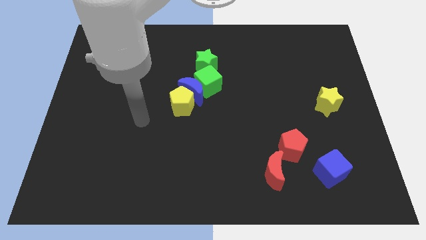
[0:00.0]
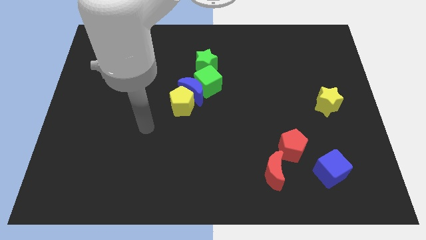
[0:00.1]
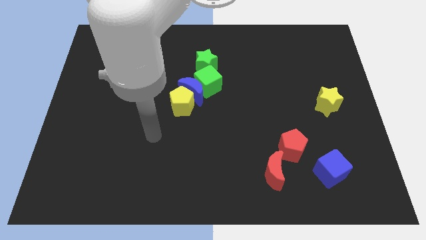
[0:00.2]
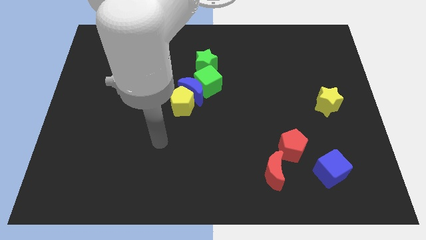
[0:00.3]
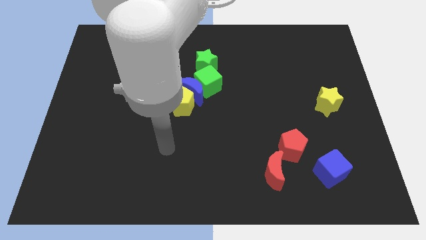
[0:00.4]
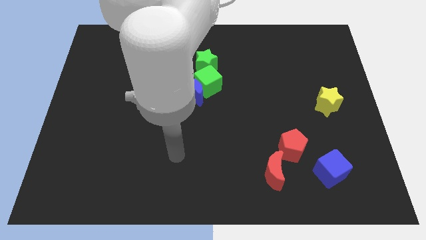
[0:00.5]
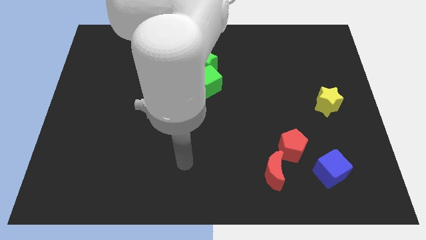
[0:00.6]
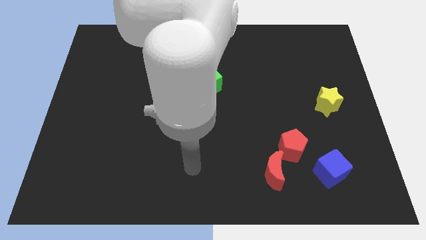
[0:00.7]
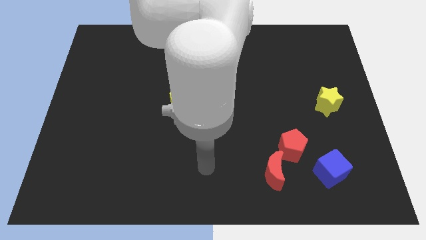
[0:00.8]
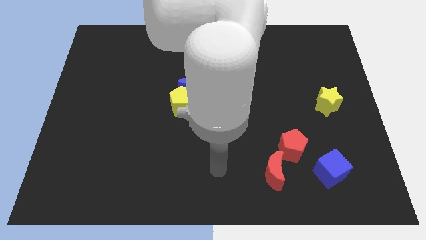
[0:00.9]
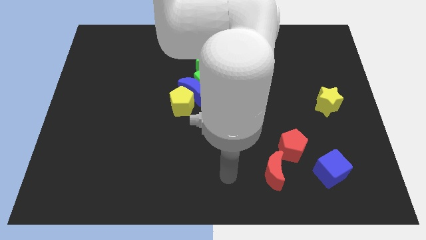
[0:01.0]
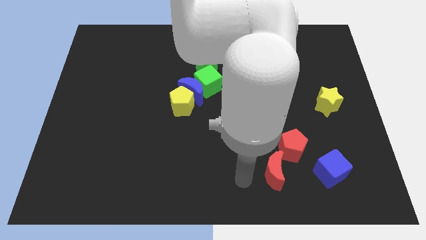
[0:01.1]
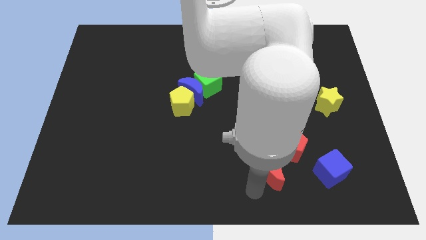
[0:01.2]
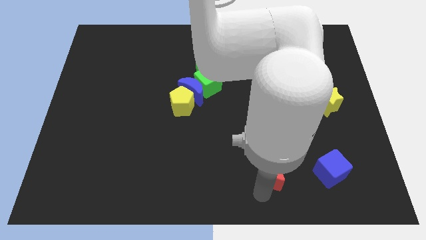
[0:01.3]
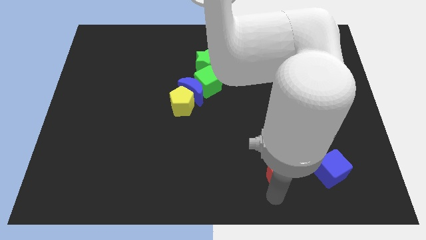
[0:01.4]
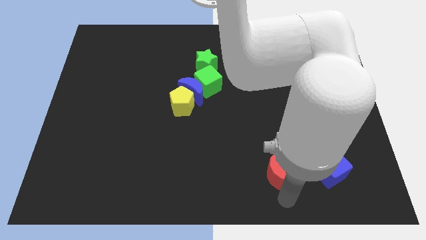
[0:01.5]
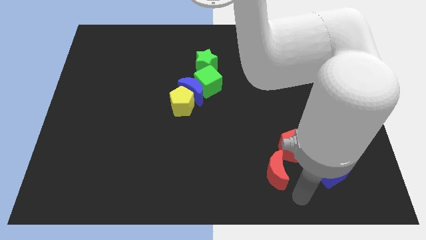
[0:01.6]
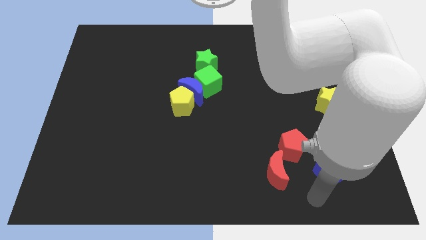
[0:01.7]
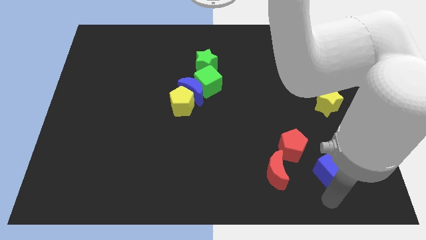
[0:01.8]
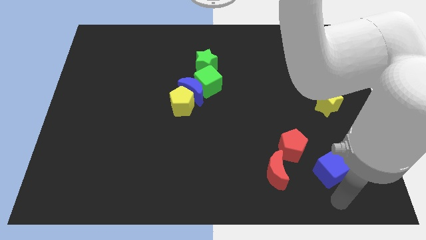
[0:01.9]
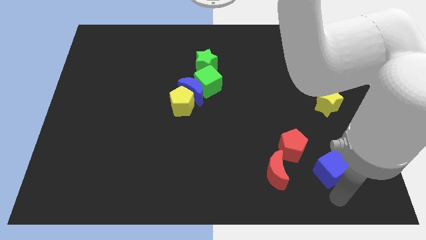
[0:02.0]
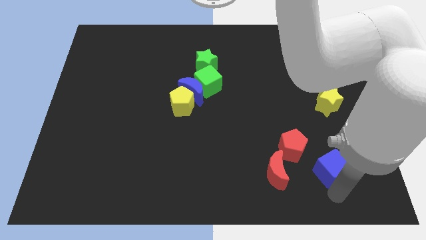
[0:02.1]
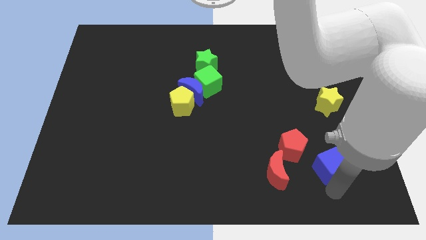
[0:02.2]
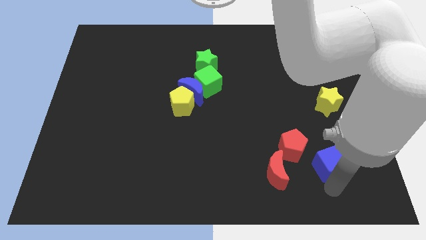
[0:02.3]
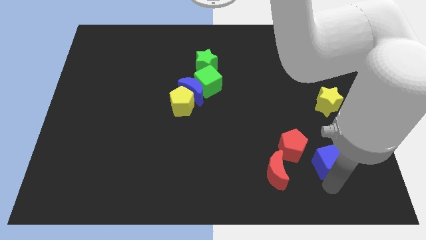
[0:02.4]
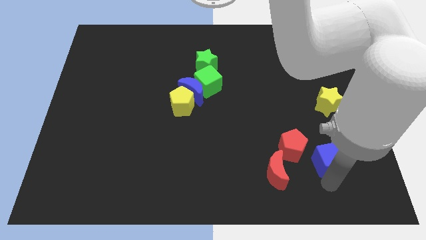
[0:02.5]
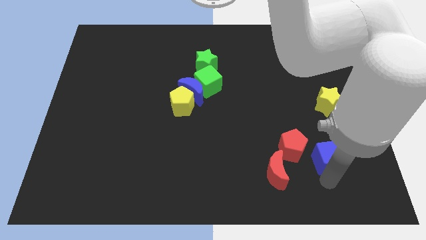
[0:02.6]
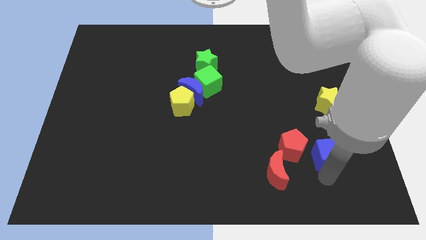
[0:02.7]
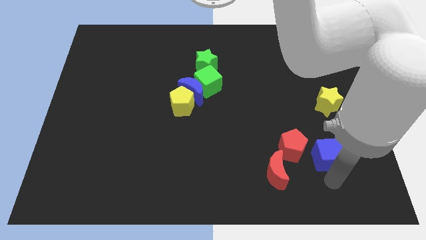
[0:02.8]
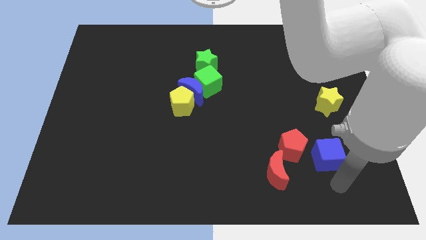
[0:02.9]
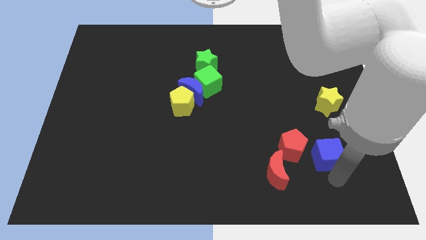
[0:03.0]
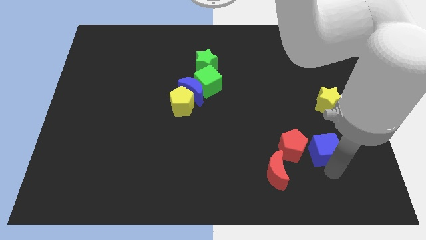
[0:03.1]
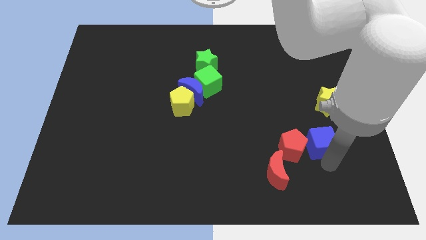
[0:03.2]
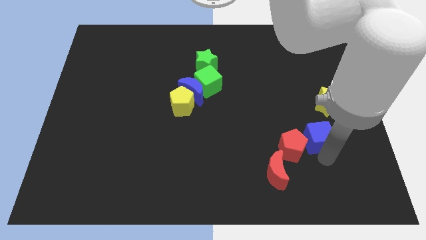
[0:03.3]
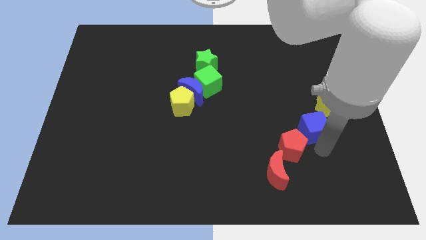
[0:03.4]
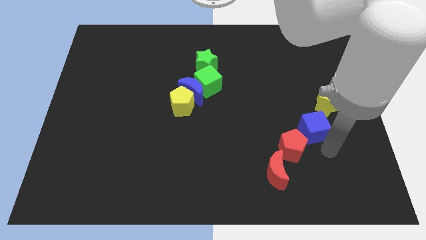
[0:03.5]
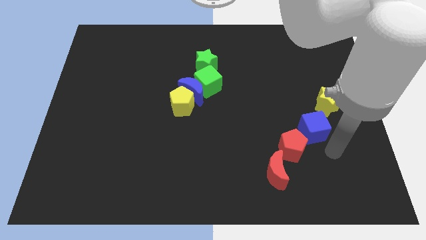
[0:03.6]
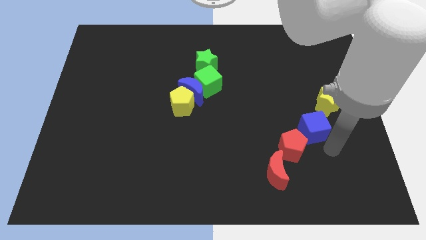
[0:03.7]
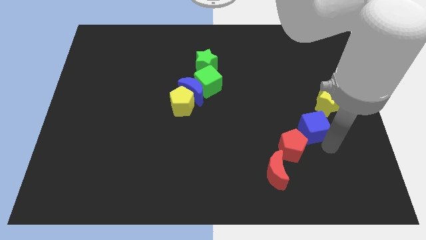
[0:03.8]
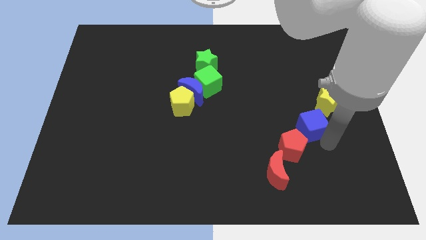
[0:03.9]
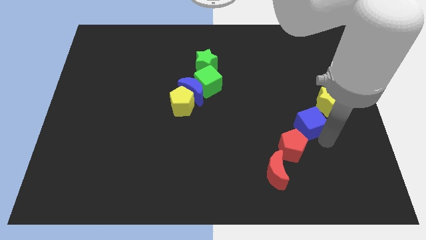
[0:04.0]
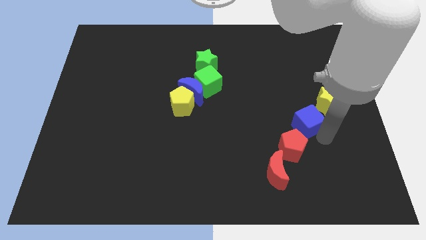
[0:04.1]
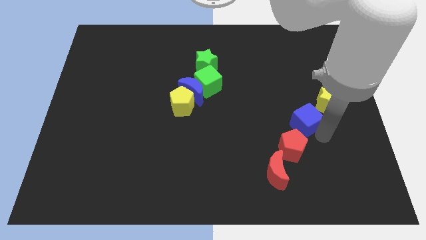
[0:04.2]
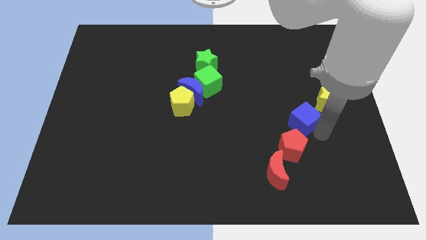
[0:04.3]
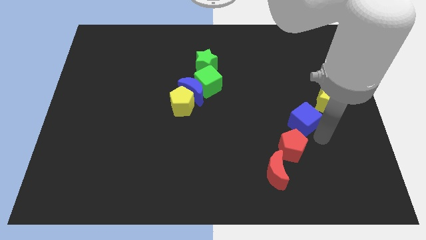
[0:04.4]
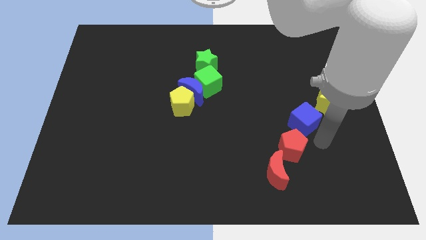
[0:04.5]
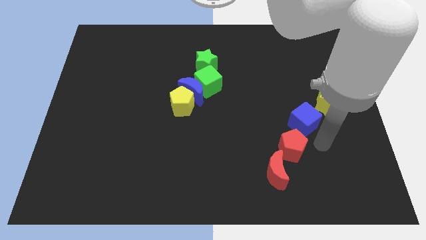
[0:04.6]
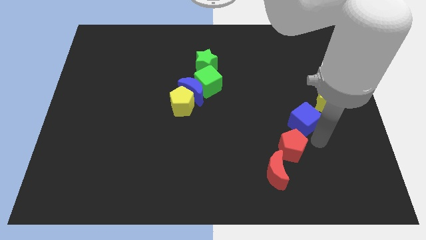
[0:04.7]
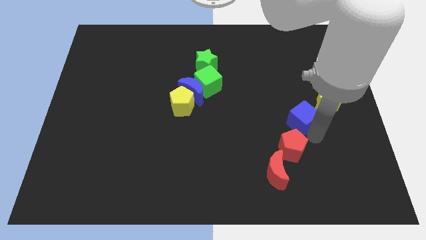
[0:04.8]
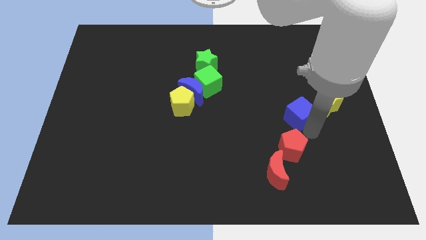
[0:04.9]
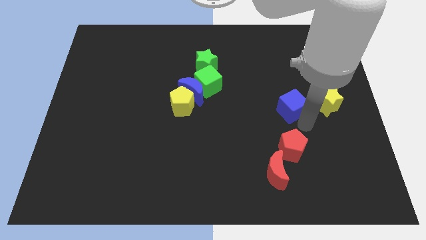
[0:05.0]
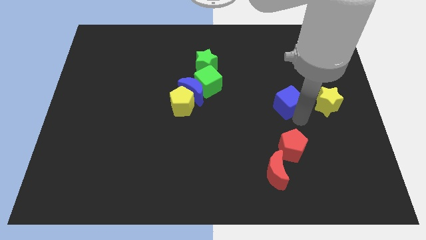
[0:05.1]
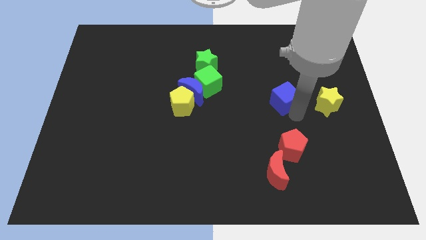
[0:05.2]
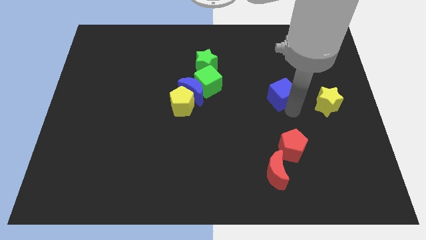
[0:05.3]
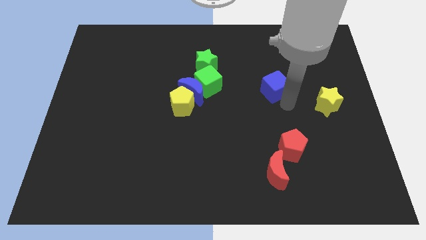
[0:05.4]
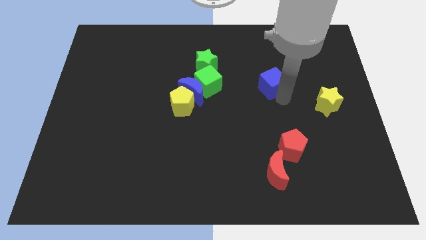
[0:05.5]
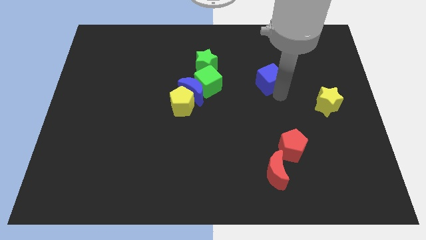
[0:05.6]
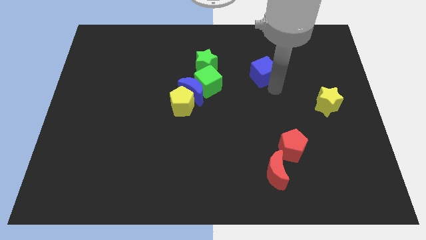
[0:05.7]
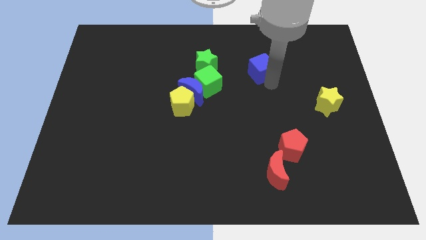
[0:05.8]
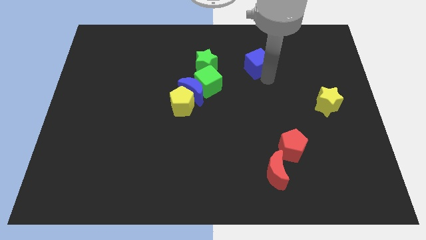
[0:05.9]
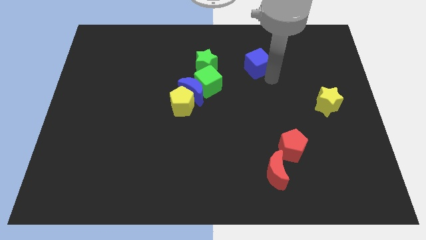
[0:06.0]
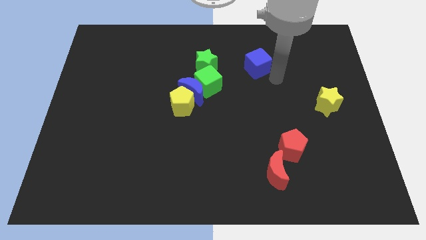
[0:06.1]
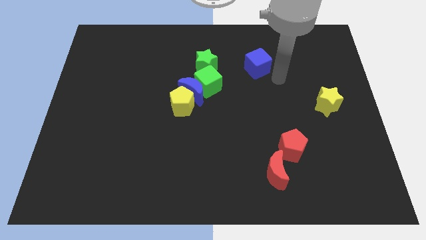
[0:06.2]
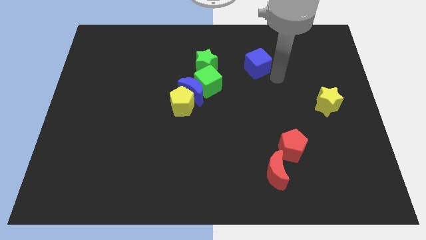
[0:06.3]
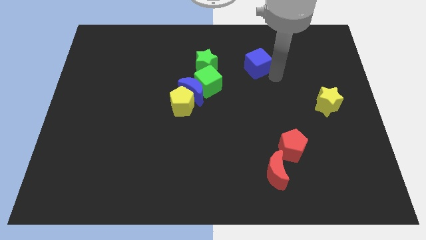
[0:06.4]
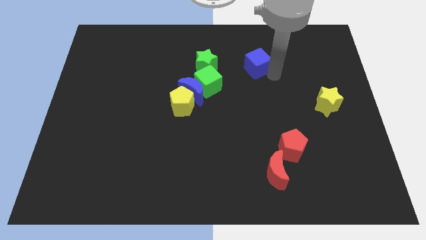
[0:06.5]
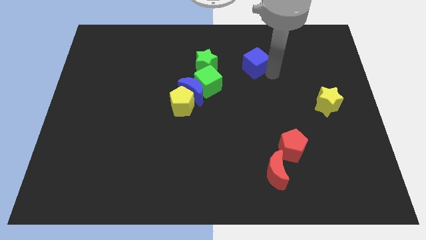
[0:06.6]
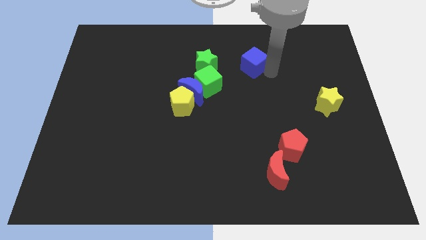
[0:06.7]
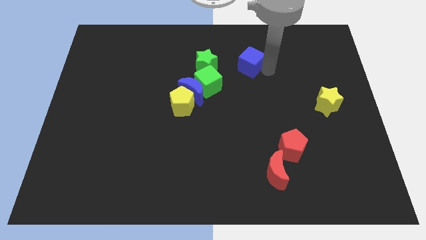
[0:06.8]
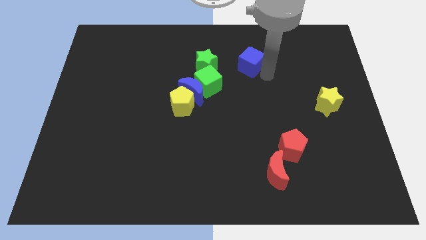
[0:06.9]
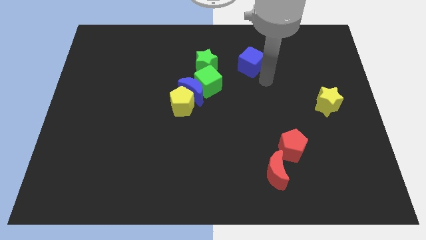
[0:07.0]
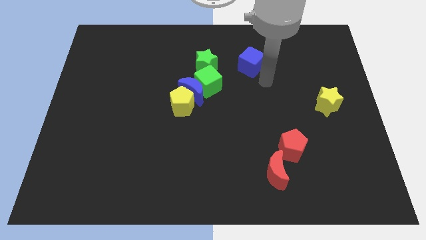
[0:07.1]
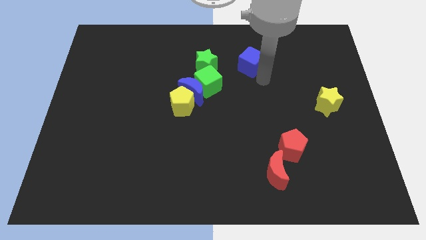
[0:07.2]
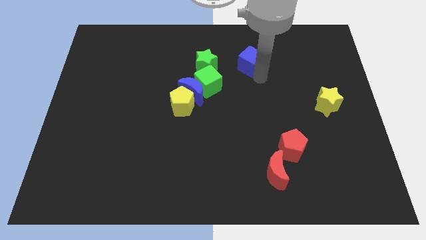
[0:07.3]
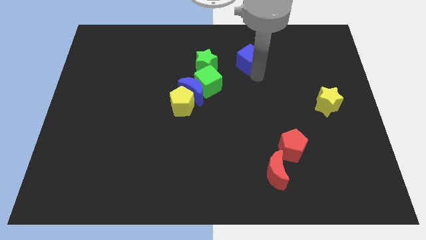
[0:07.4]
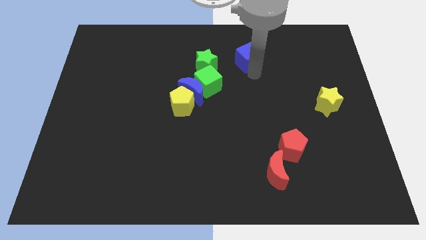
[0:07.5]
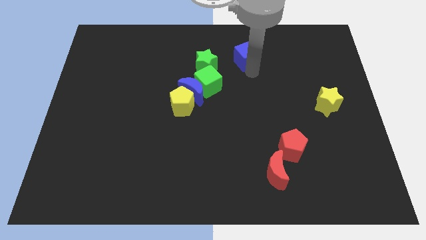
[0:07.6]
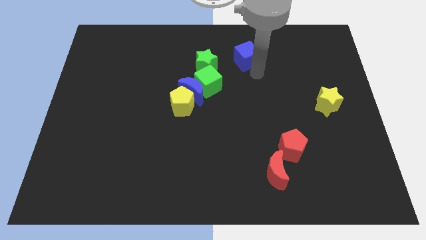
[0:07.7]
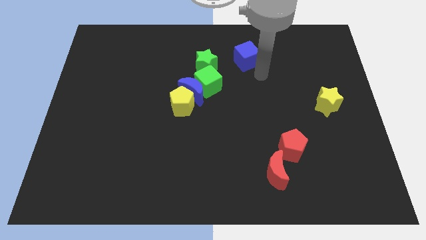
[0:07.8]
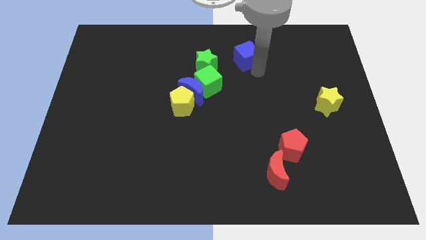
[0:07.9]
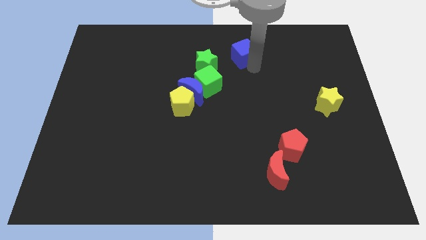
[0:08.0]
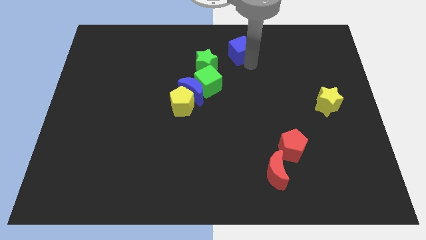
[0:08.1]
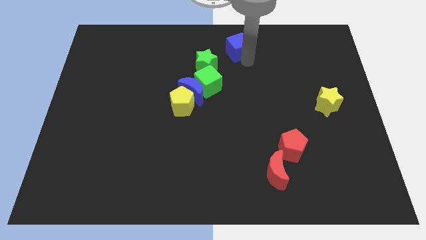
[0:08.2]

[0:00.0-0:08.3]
put the blue cube to the top side
